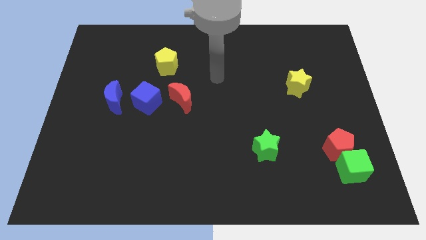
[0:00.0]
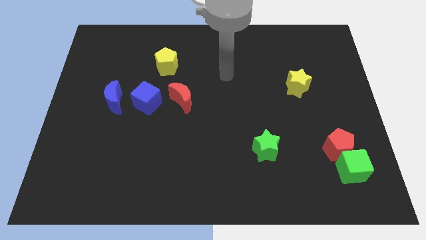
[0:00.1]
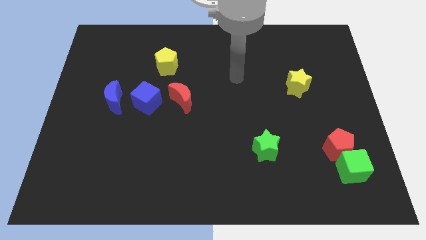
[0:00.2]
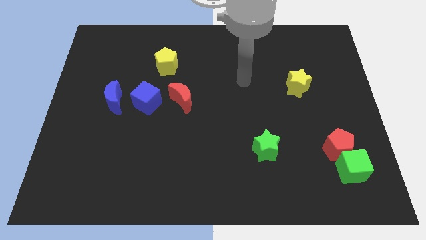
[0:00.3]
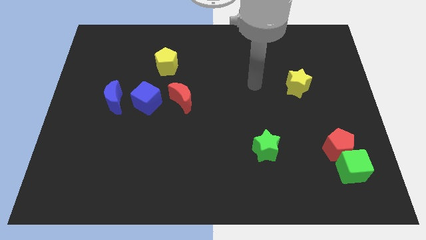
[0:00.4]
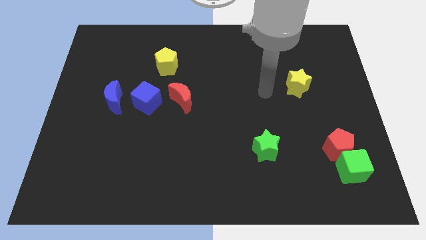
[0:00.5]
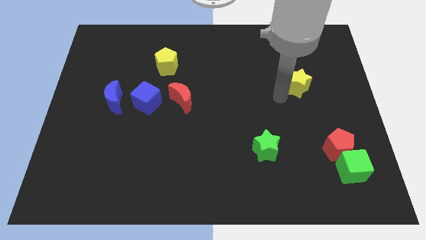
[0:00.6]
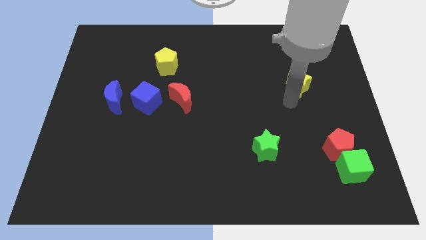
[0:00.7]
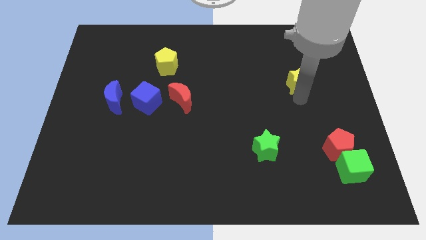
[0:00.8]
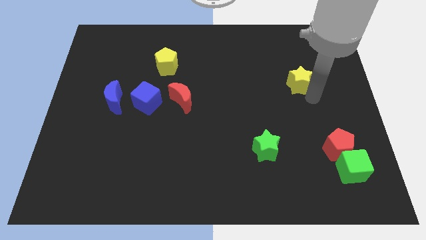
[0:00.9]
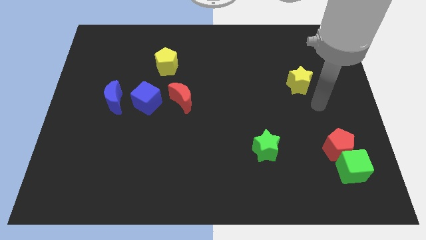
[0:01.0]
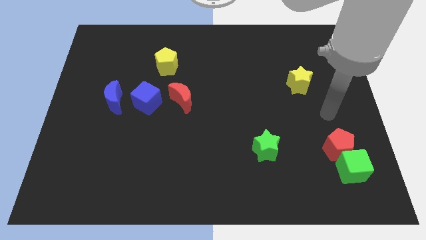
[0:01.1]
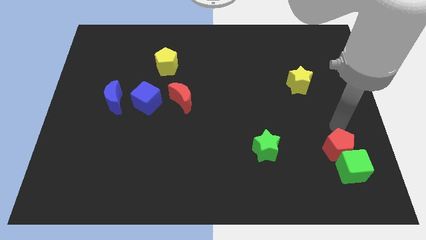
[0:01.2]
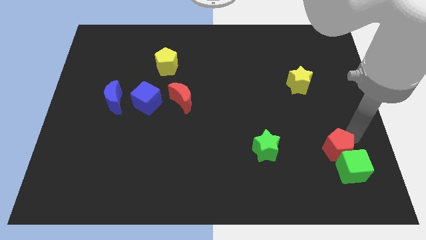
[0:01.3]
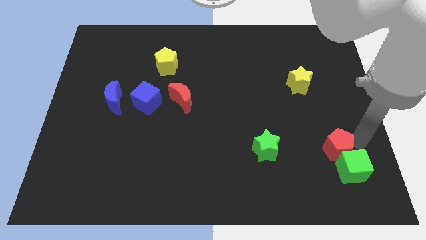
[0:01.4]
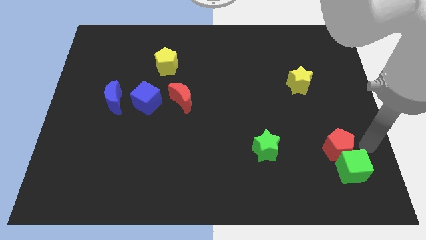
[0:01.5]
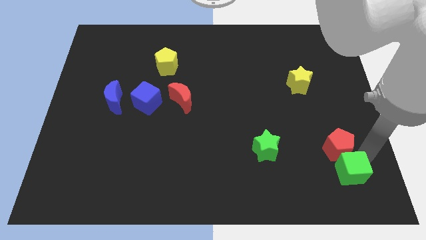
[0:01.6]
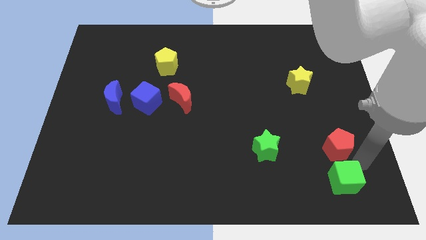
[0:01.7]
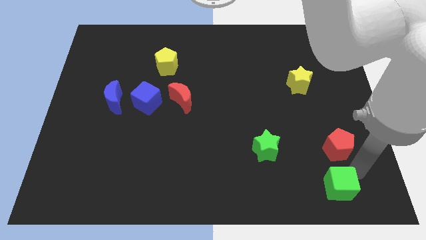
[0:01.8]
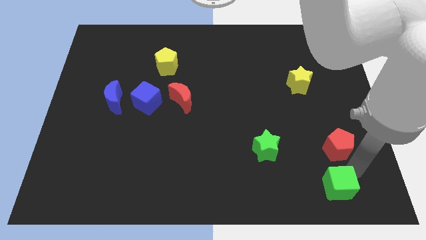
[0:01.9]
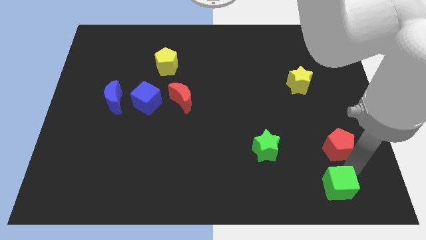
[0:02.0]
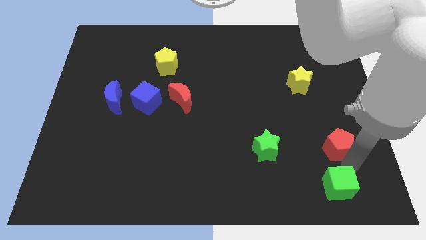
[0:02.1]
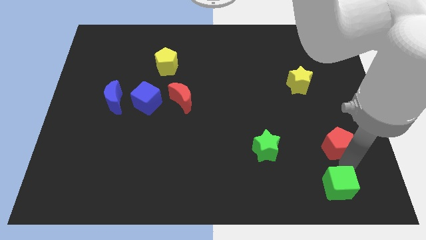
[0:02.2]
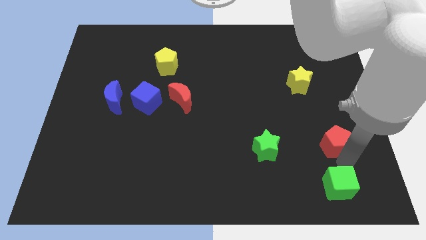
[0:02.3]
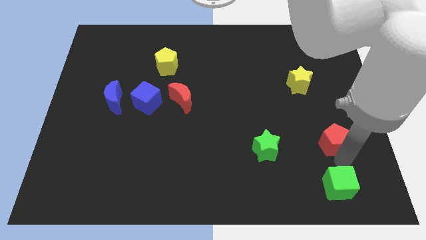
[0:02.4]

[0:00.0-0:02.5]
move the red pentagon away from the green cube

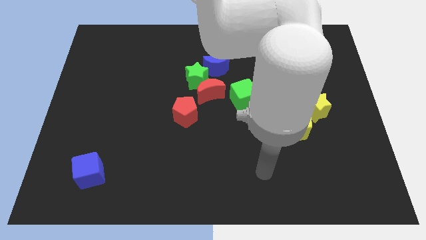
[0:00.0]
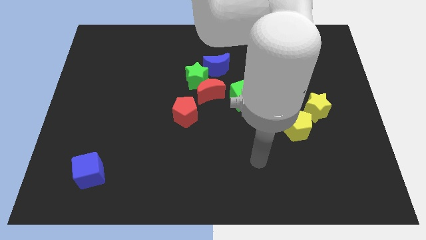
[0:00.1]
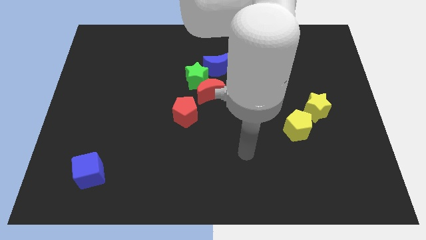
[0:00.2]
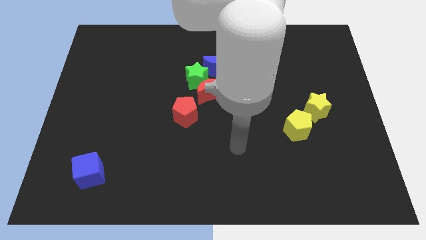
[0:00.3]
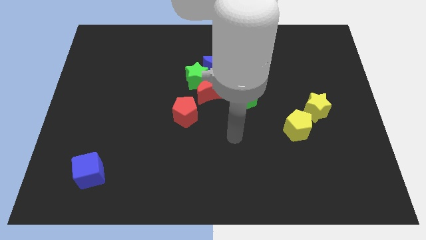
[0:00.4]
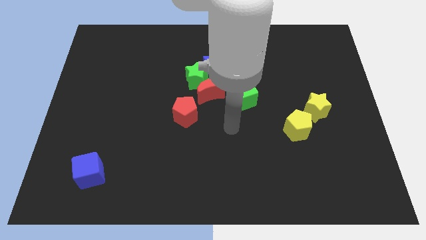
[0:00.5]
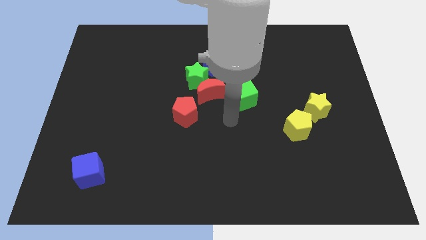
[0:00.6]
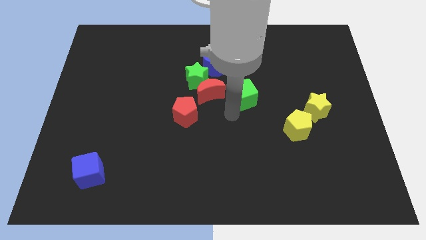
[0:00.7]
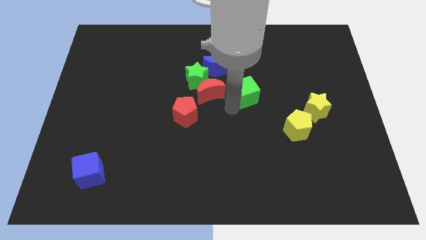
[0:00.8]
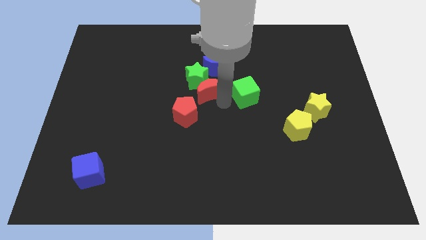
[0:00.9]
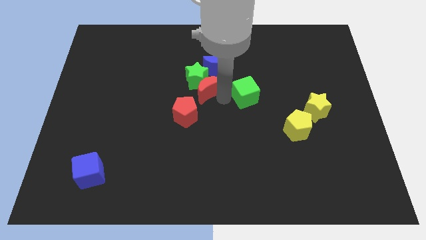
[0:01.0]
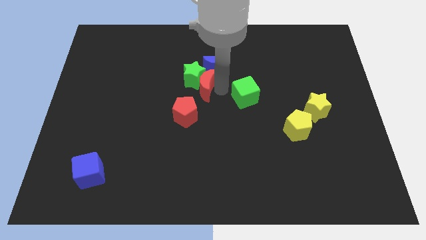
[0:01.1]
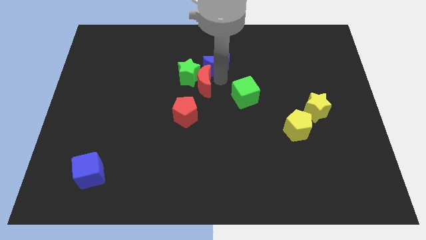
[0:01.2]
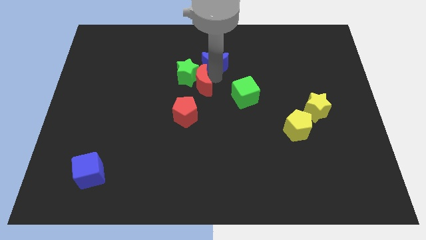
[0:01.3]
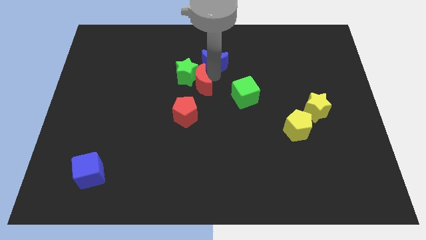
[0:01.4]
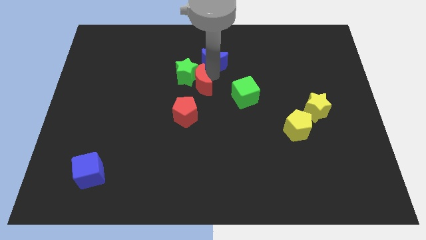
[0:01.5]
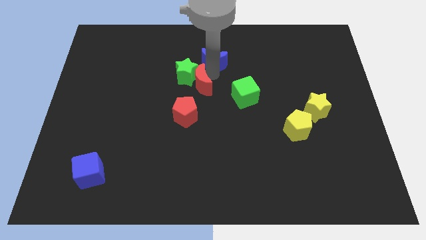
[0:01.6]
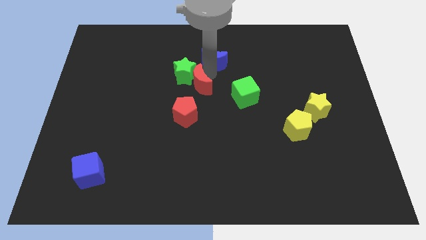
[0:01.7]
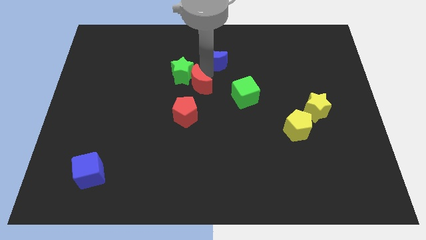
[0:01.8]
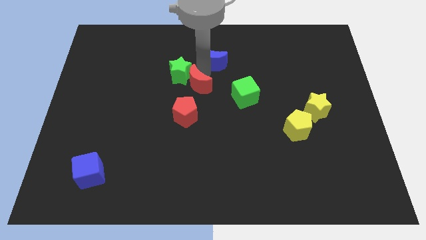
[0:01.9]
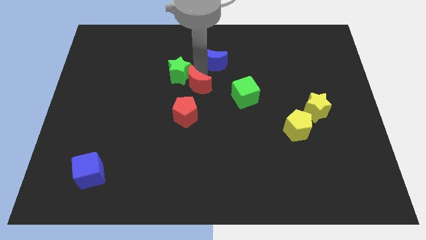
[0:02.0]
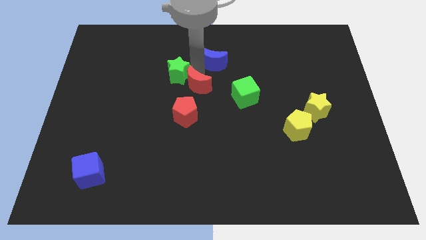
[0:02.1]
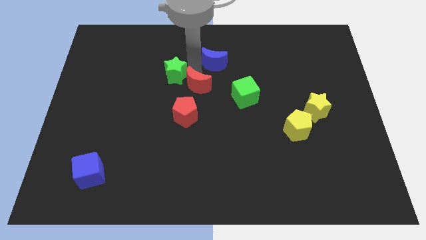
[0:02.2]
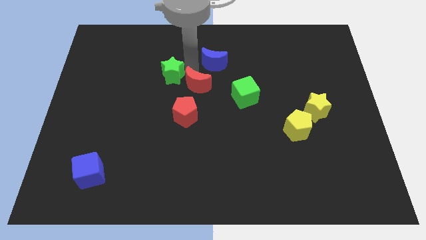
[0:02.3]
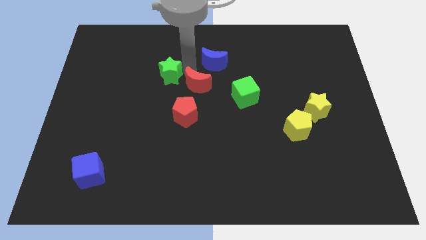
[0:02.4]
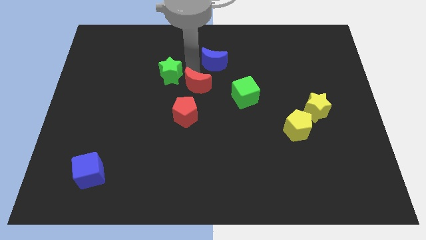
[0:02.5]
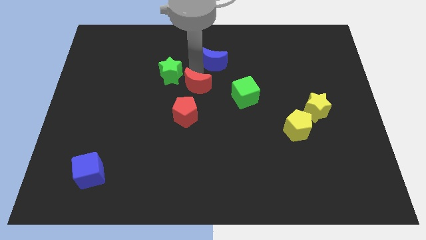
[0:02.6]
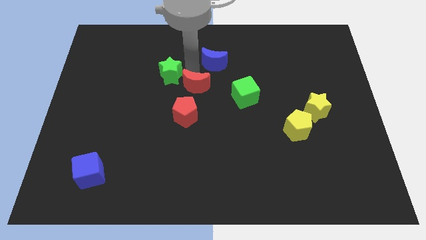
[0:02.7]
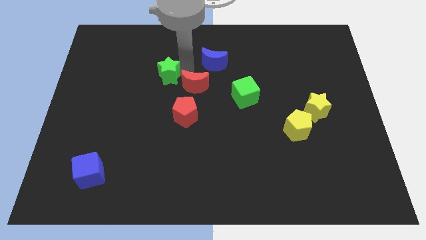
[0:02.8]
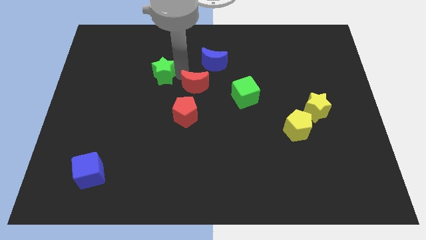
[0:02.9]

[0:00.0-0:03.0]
move the green star away from the red moon and blue moon

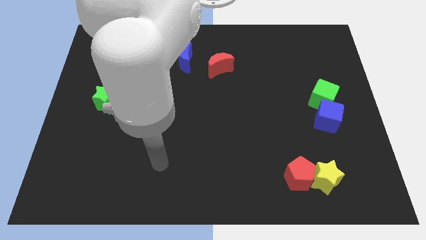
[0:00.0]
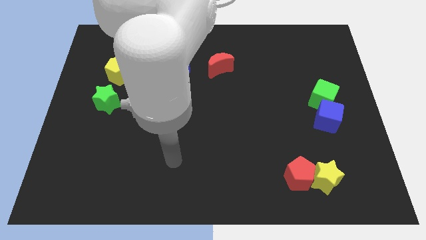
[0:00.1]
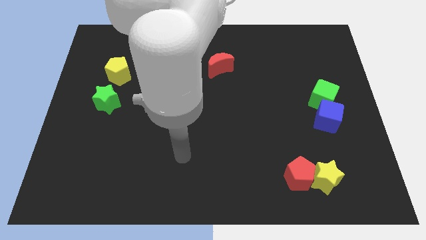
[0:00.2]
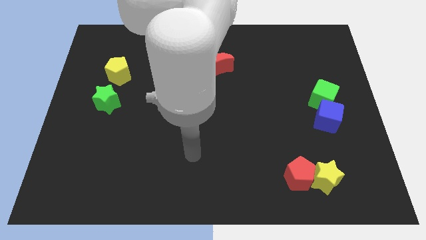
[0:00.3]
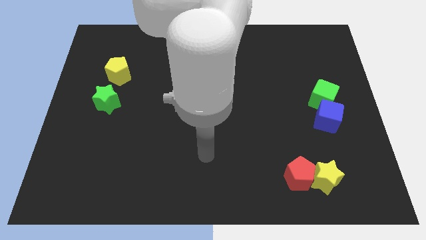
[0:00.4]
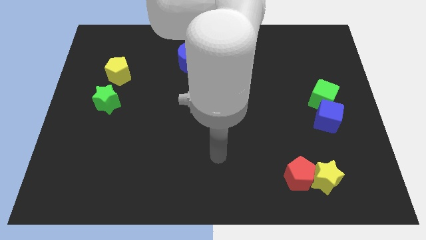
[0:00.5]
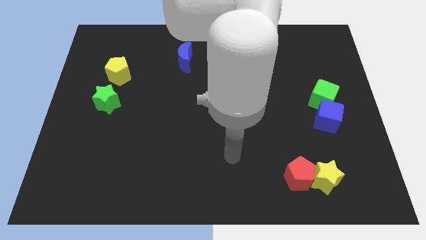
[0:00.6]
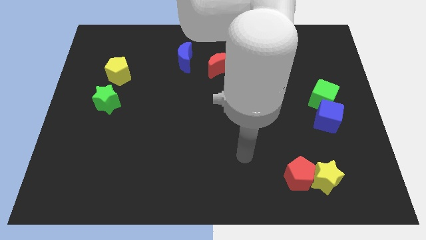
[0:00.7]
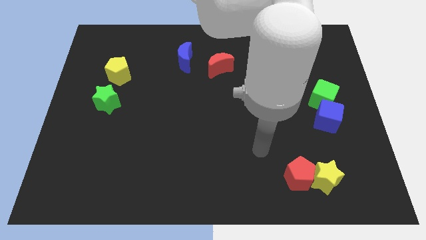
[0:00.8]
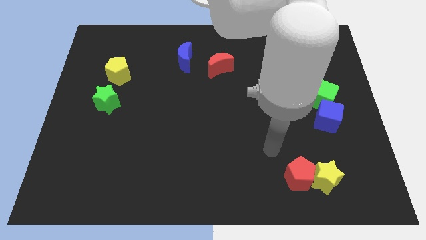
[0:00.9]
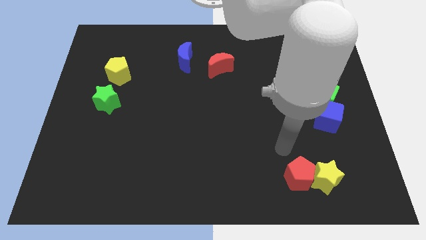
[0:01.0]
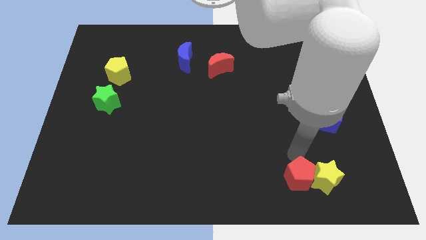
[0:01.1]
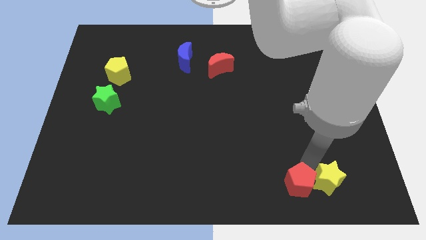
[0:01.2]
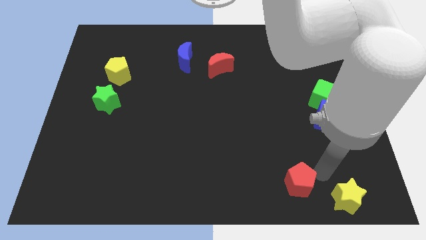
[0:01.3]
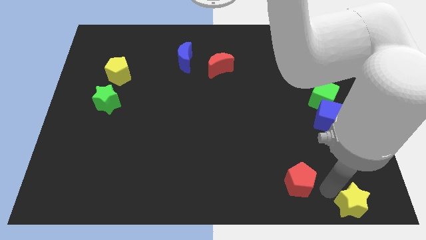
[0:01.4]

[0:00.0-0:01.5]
move the red pentagon away from the yellow star

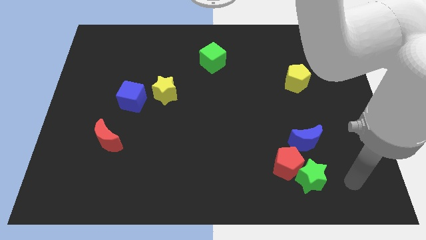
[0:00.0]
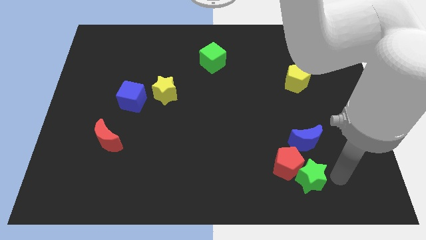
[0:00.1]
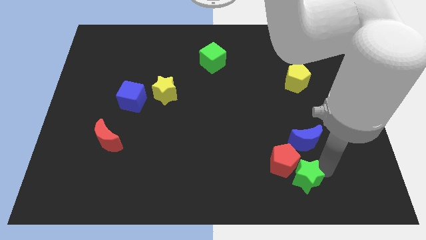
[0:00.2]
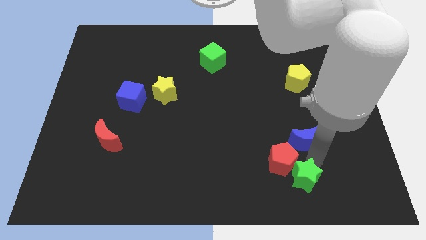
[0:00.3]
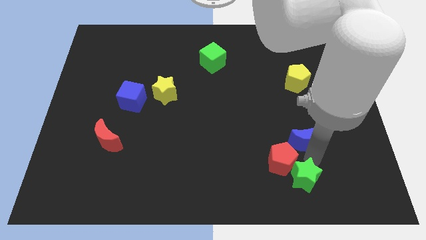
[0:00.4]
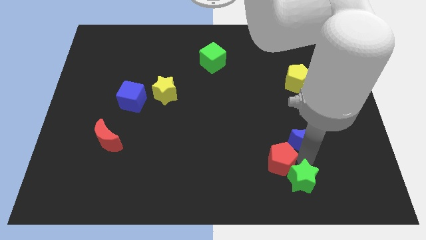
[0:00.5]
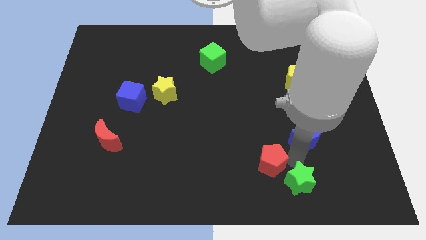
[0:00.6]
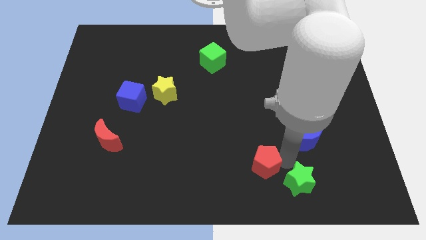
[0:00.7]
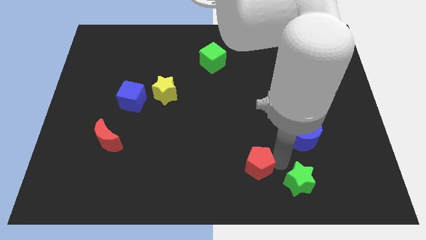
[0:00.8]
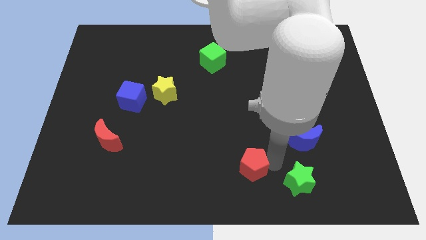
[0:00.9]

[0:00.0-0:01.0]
move the red pentagon away from the green star and blue moon

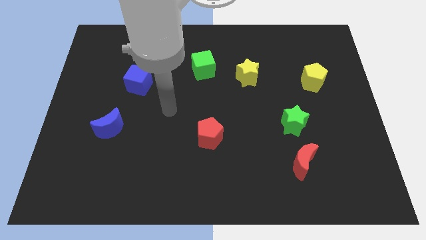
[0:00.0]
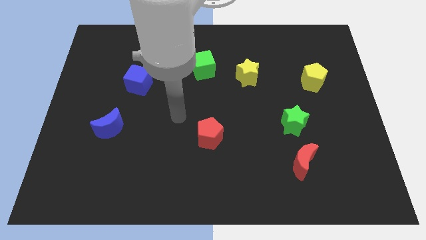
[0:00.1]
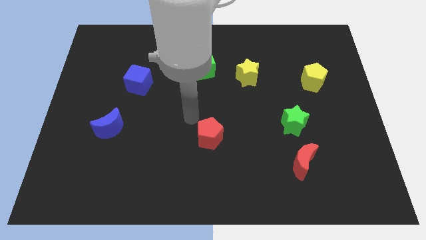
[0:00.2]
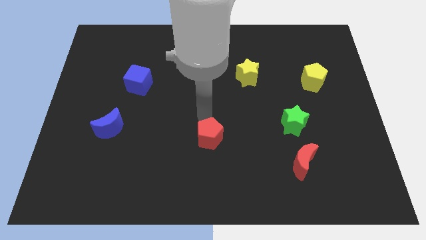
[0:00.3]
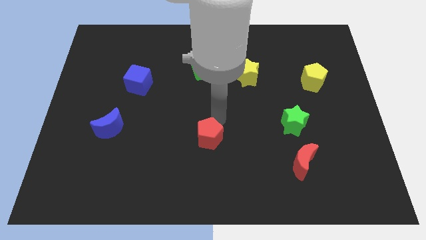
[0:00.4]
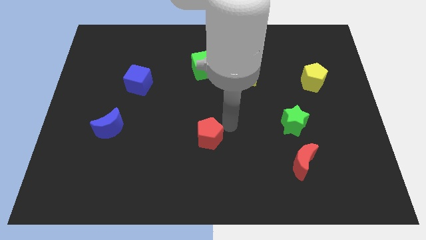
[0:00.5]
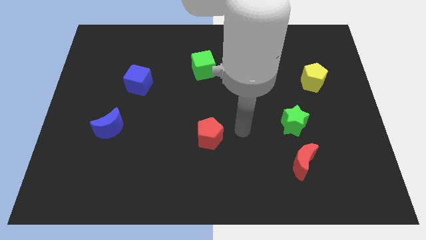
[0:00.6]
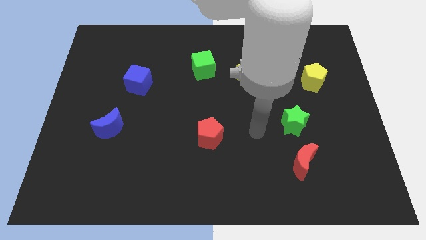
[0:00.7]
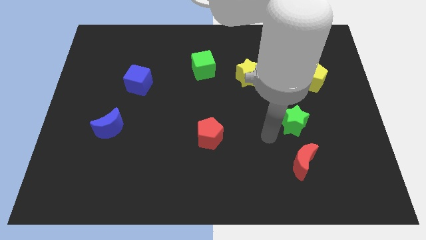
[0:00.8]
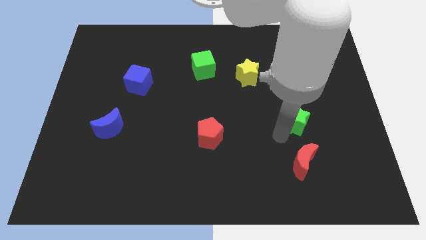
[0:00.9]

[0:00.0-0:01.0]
move the red moon away from the green star

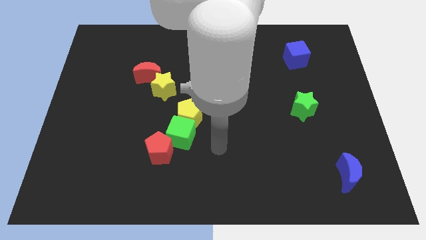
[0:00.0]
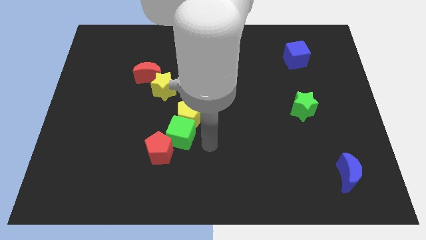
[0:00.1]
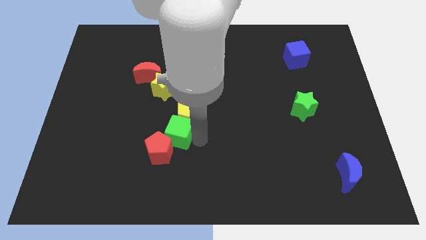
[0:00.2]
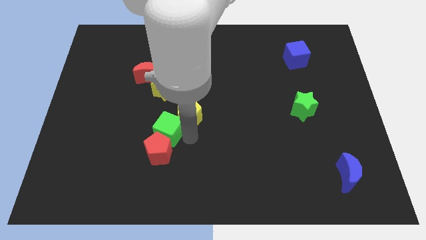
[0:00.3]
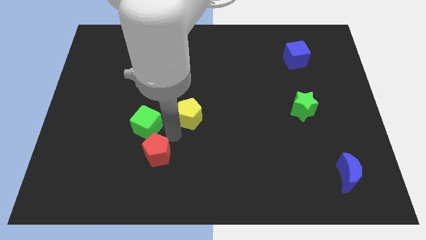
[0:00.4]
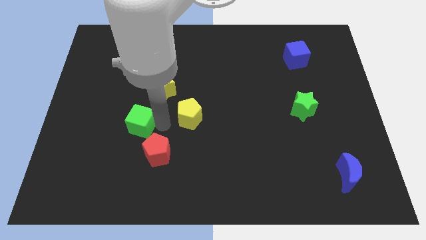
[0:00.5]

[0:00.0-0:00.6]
pull the yellow pentagon apart from the green cube
